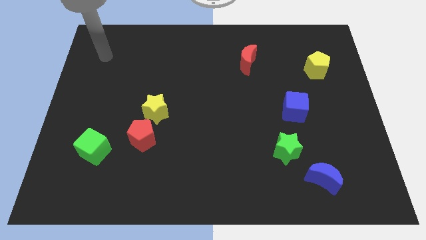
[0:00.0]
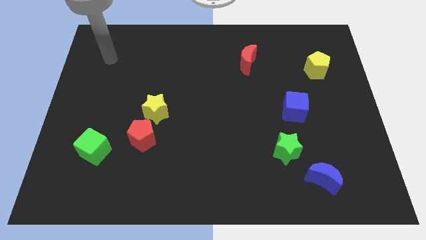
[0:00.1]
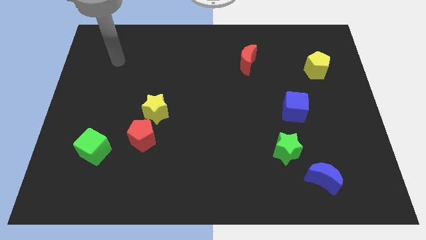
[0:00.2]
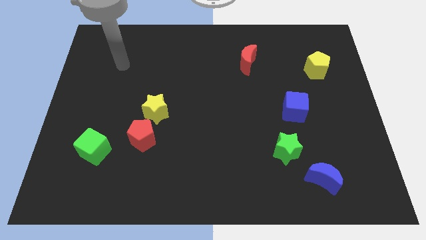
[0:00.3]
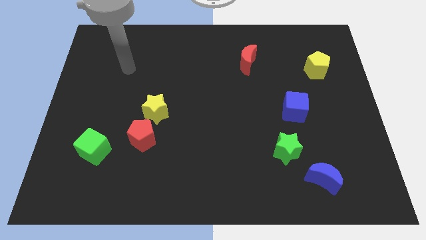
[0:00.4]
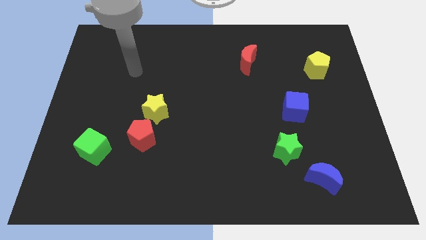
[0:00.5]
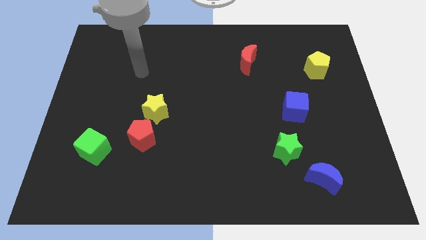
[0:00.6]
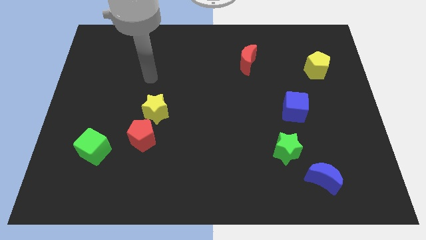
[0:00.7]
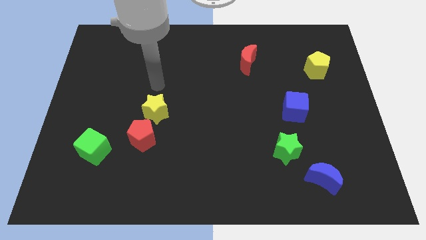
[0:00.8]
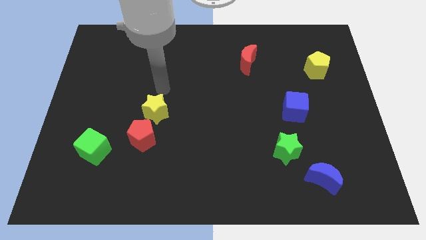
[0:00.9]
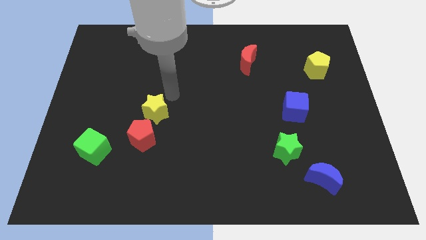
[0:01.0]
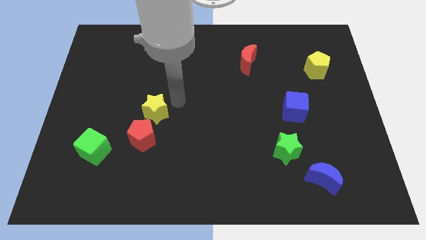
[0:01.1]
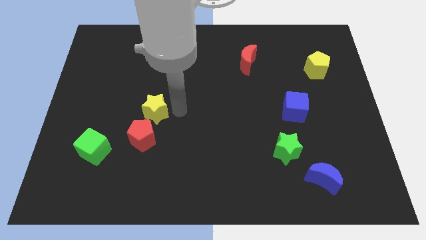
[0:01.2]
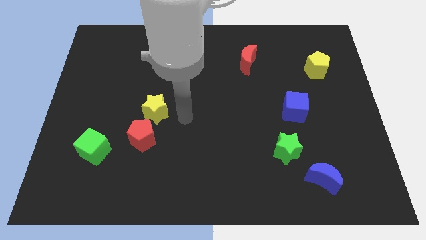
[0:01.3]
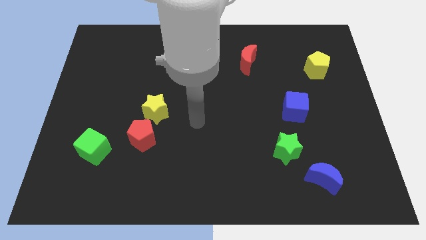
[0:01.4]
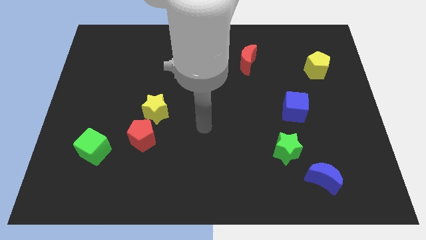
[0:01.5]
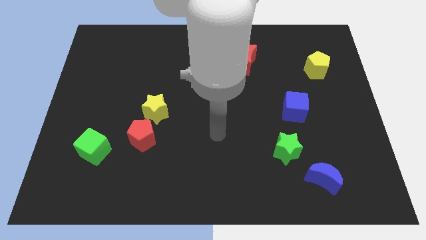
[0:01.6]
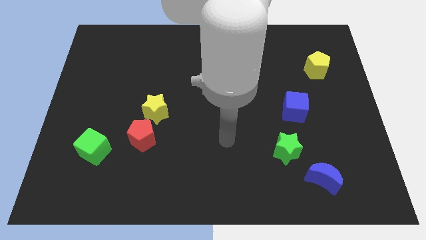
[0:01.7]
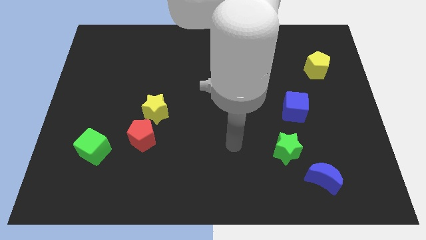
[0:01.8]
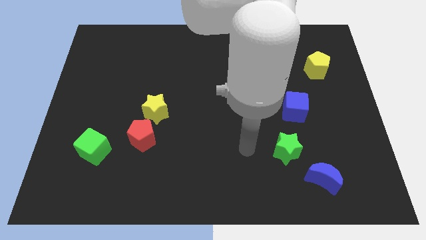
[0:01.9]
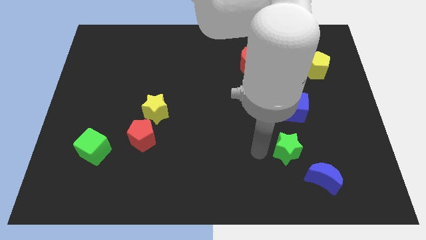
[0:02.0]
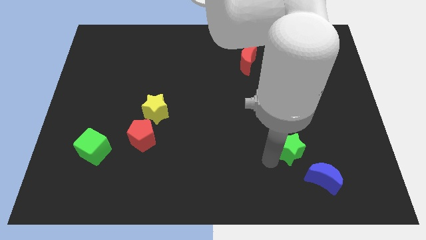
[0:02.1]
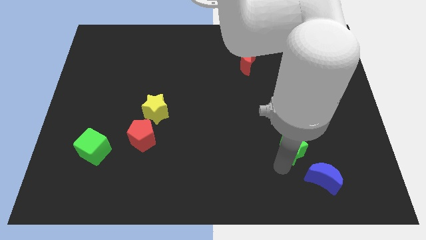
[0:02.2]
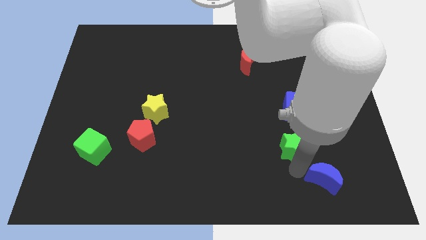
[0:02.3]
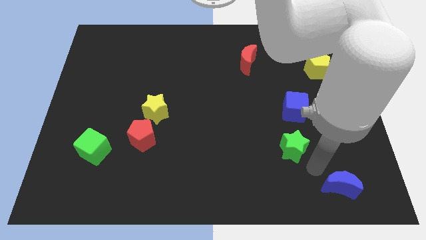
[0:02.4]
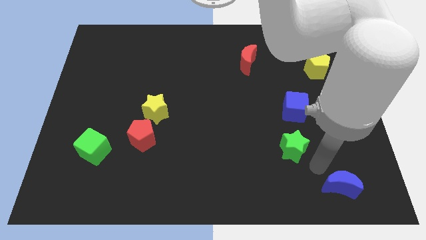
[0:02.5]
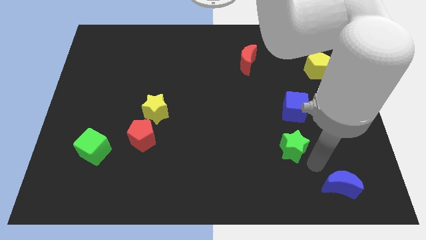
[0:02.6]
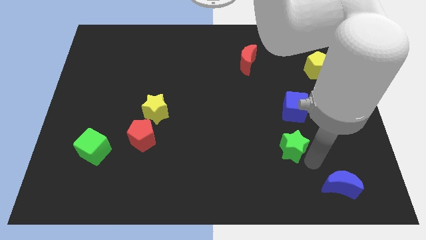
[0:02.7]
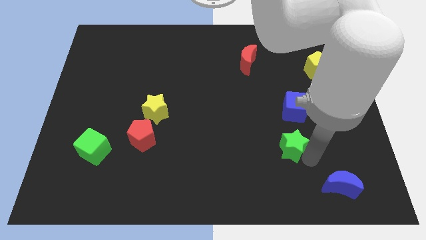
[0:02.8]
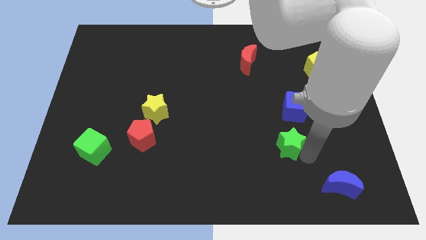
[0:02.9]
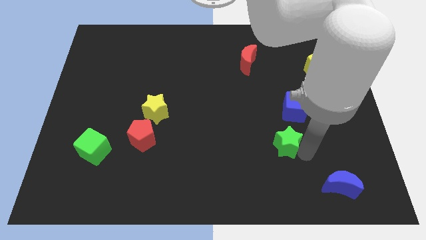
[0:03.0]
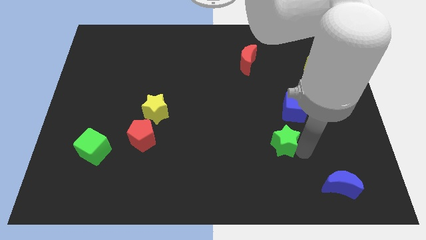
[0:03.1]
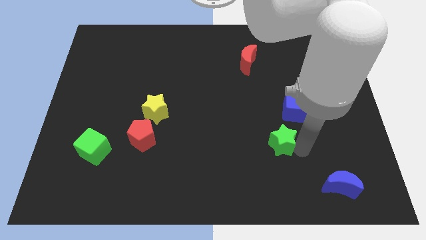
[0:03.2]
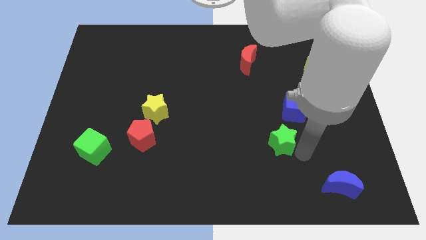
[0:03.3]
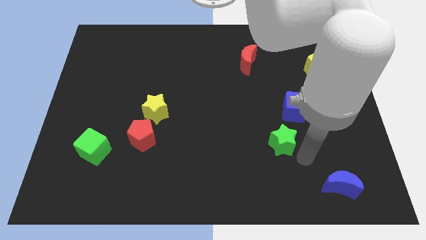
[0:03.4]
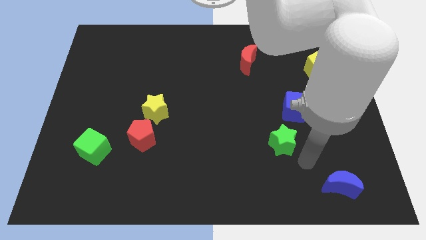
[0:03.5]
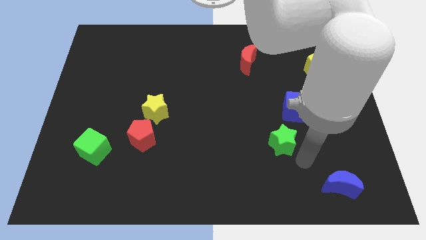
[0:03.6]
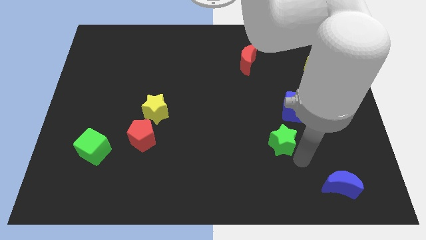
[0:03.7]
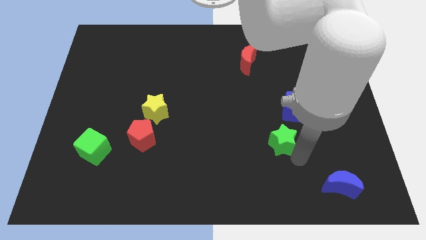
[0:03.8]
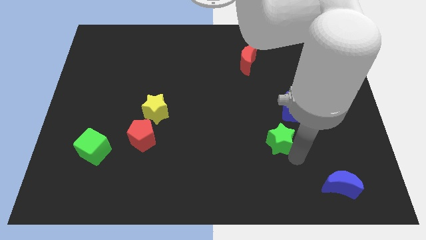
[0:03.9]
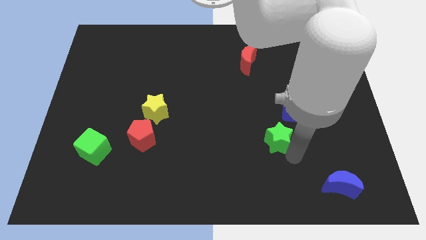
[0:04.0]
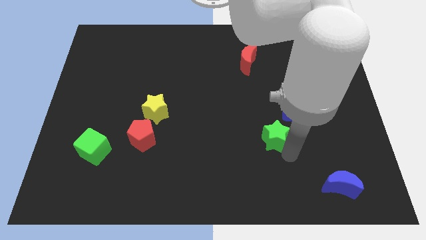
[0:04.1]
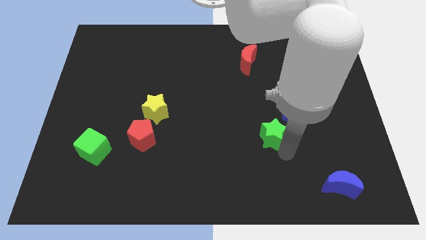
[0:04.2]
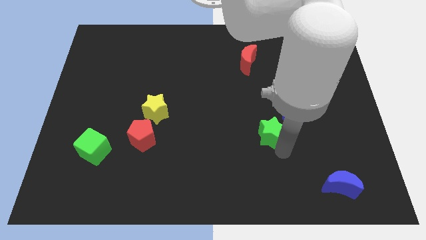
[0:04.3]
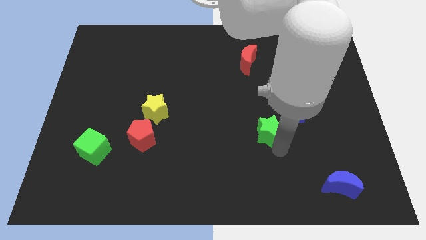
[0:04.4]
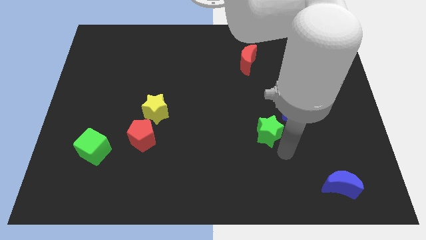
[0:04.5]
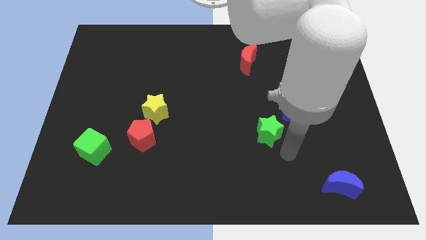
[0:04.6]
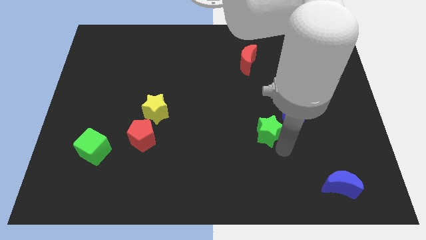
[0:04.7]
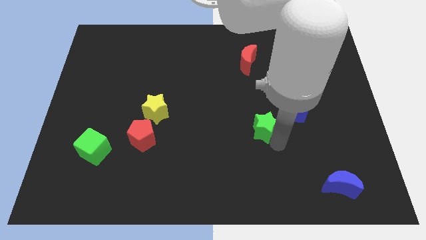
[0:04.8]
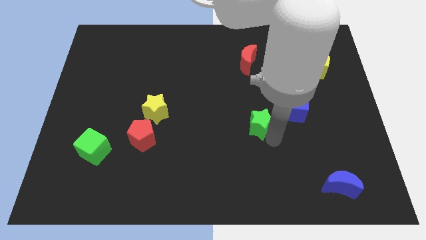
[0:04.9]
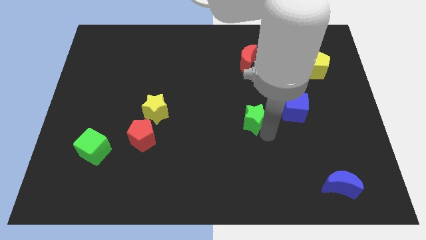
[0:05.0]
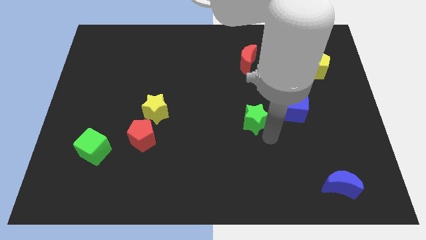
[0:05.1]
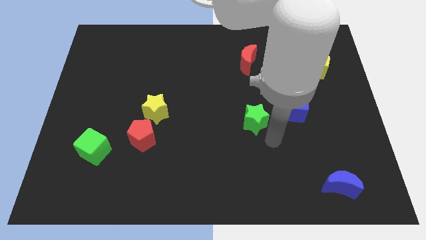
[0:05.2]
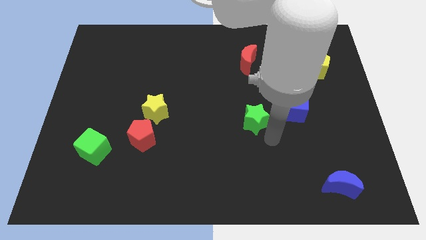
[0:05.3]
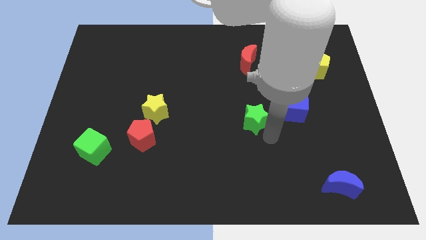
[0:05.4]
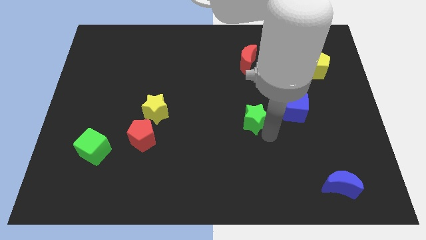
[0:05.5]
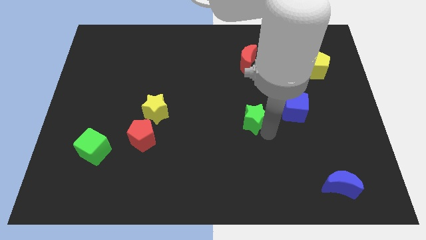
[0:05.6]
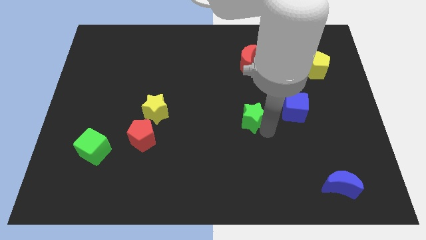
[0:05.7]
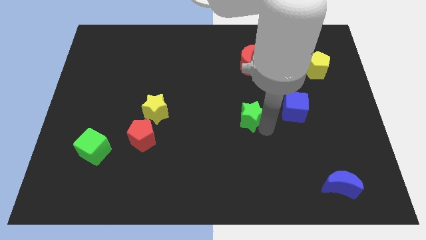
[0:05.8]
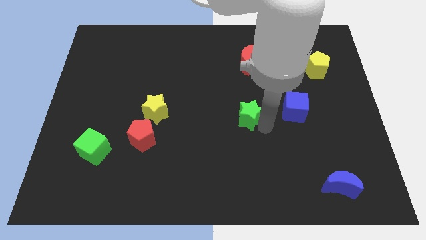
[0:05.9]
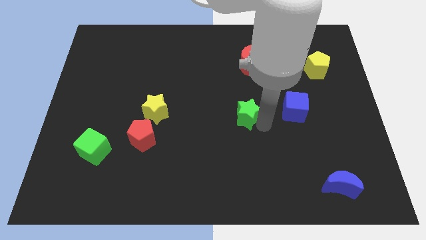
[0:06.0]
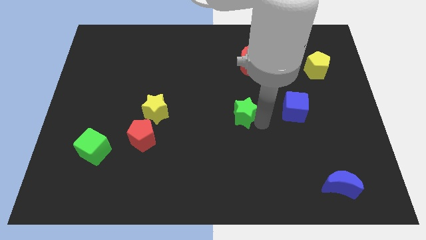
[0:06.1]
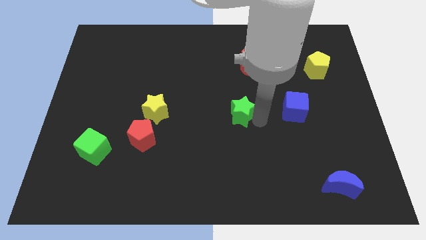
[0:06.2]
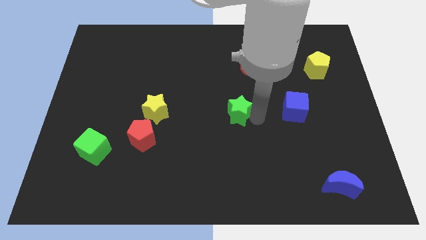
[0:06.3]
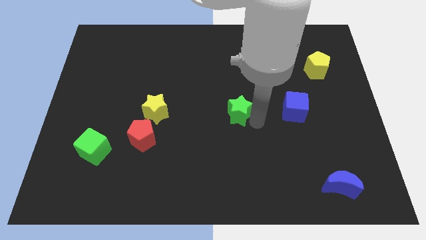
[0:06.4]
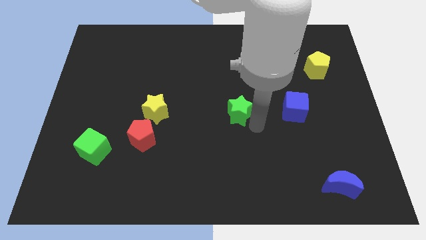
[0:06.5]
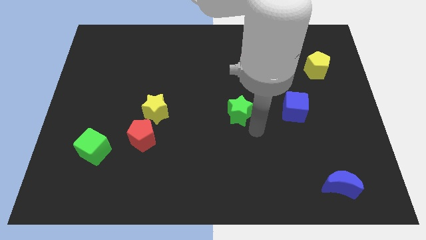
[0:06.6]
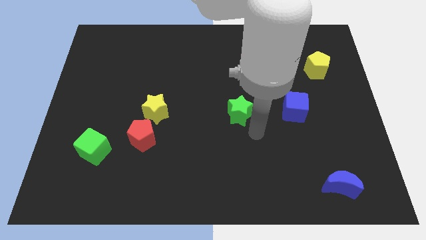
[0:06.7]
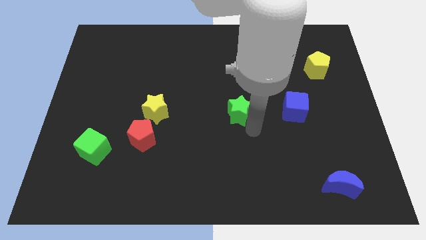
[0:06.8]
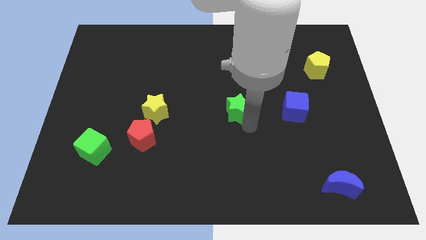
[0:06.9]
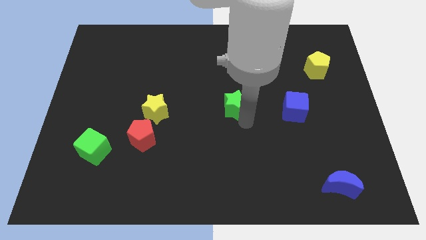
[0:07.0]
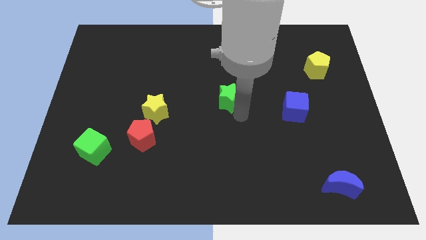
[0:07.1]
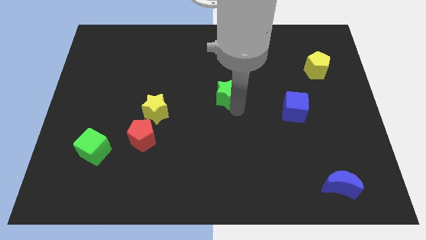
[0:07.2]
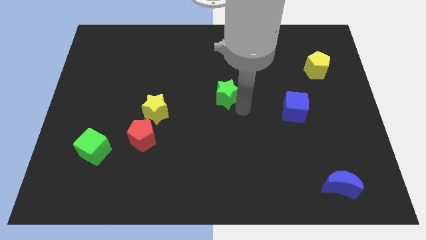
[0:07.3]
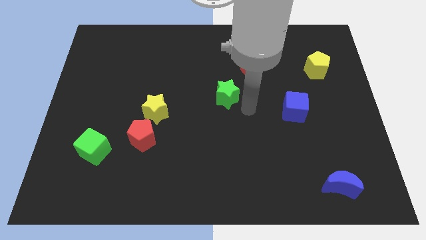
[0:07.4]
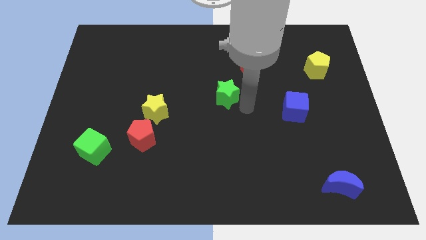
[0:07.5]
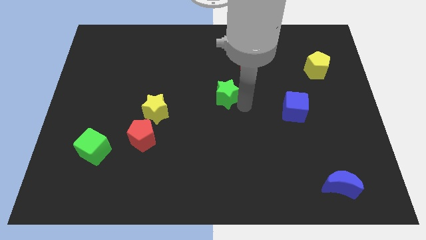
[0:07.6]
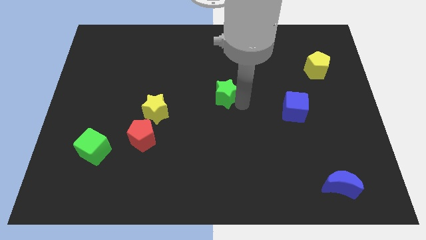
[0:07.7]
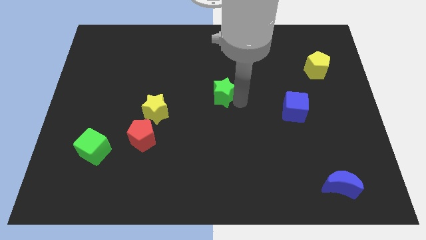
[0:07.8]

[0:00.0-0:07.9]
push the green star upwards and to the left
